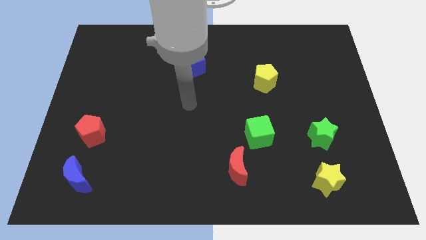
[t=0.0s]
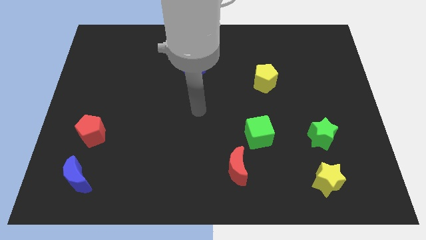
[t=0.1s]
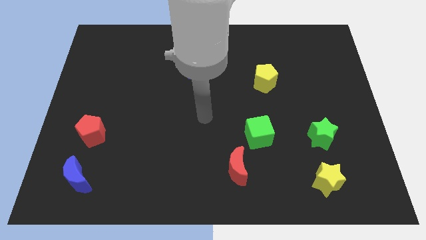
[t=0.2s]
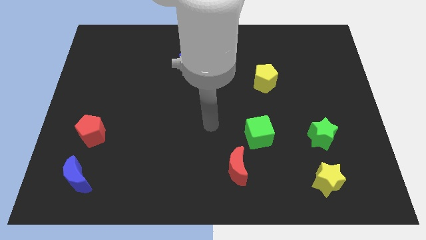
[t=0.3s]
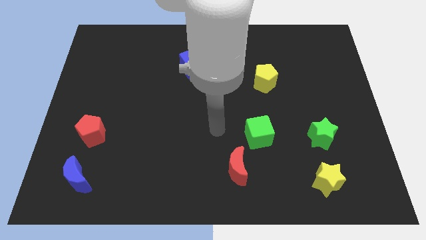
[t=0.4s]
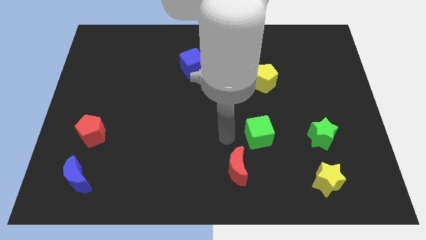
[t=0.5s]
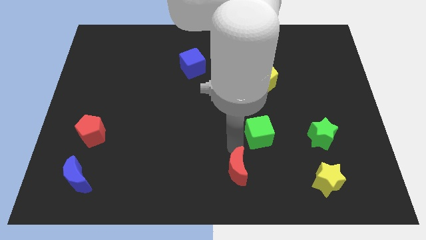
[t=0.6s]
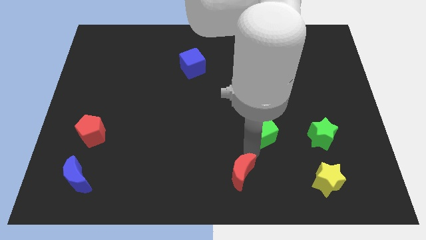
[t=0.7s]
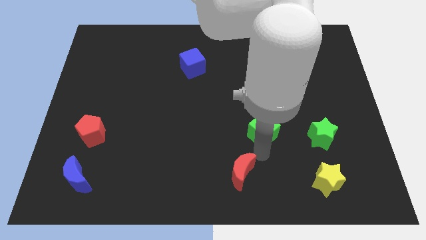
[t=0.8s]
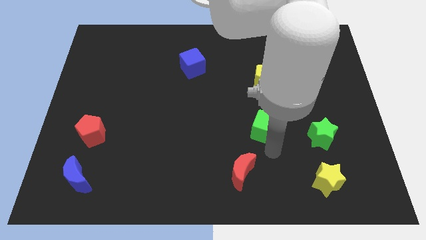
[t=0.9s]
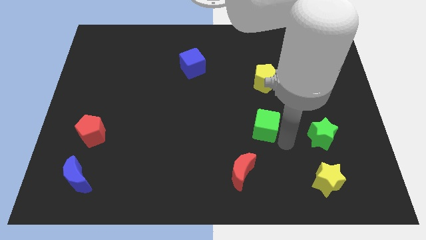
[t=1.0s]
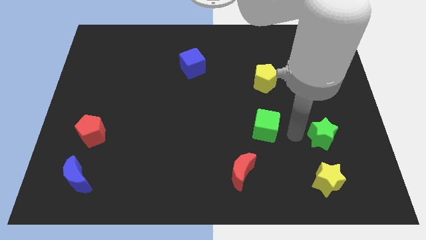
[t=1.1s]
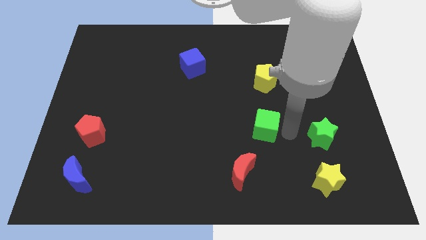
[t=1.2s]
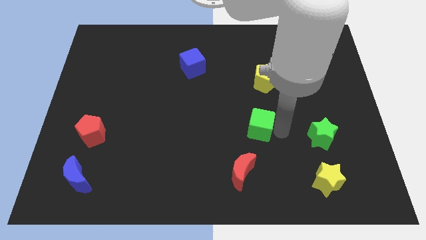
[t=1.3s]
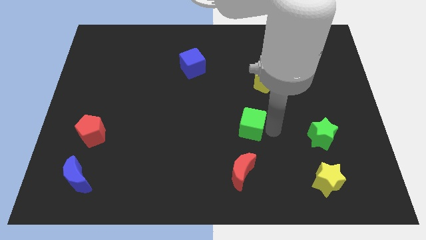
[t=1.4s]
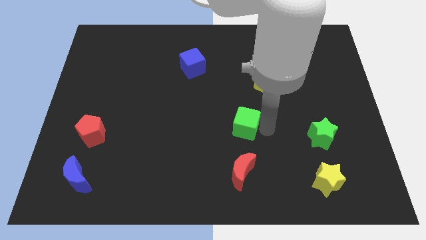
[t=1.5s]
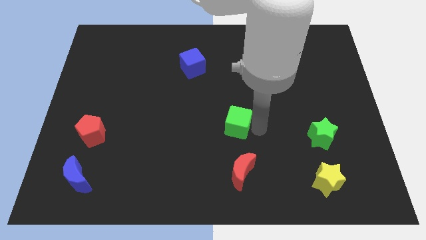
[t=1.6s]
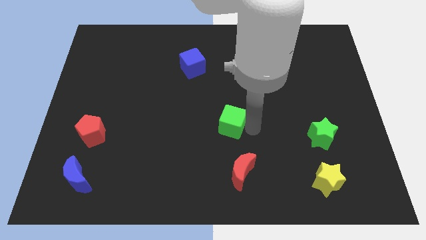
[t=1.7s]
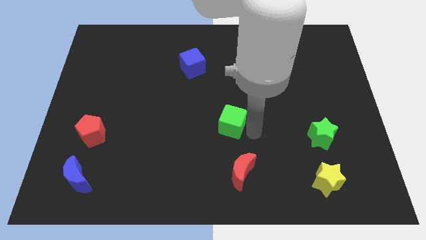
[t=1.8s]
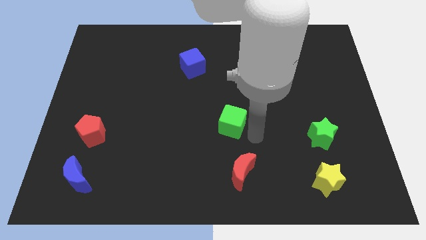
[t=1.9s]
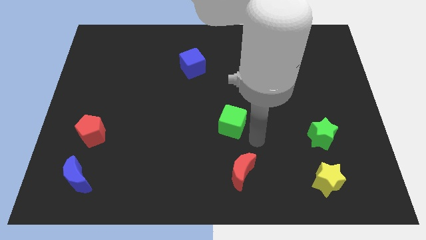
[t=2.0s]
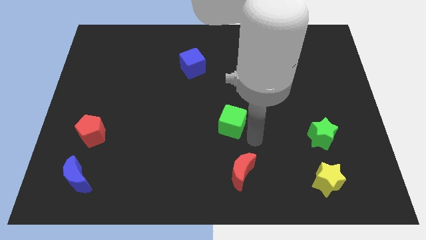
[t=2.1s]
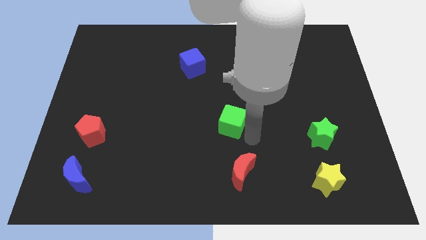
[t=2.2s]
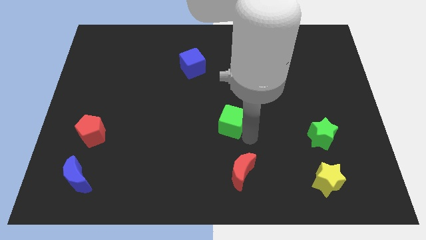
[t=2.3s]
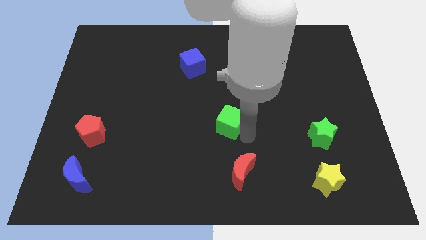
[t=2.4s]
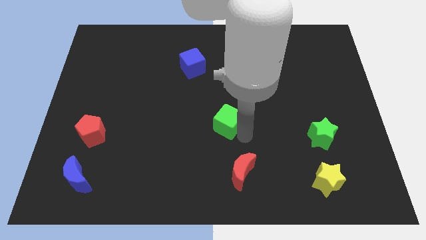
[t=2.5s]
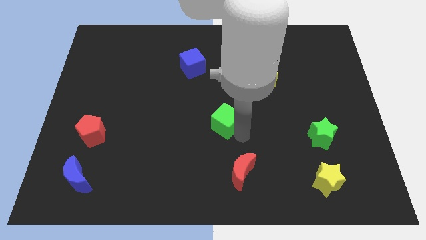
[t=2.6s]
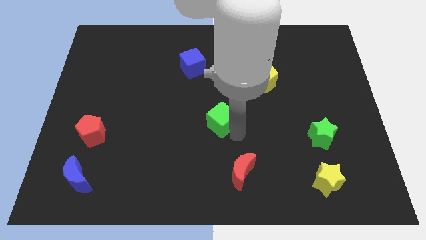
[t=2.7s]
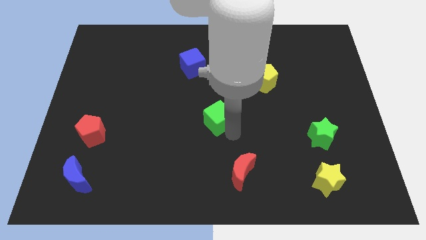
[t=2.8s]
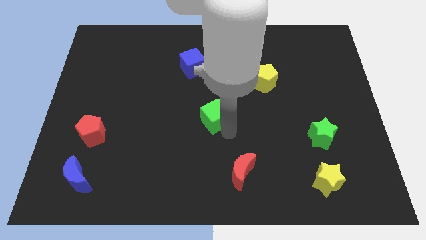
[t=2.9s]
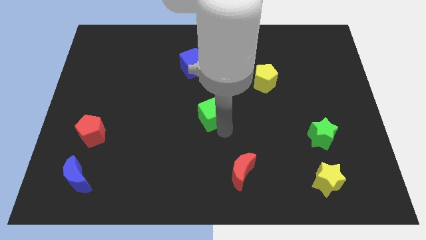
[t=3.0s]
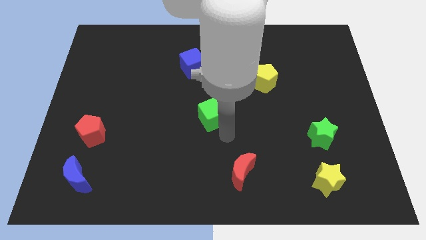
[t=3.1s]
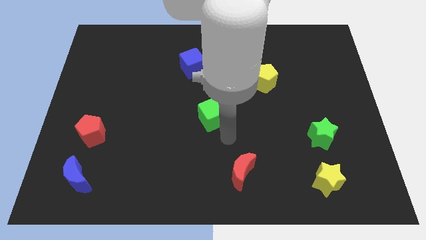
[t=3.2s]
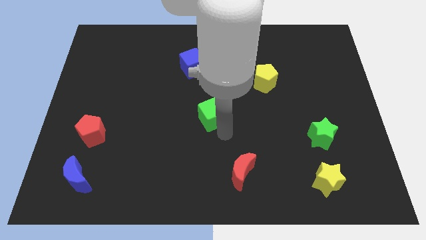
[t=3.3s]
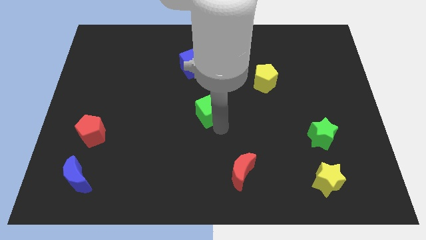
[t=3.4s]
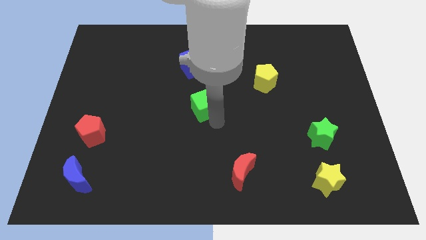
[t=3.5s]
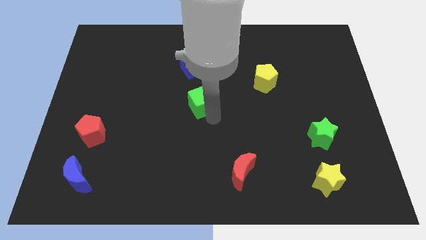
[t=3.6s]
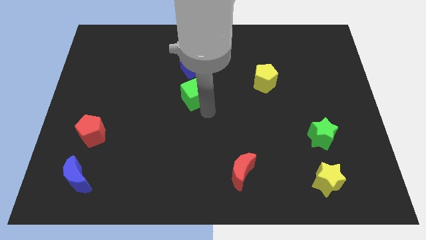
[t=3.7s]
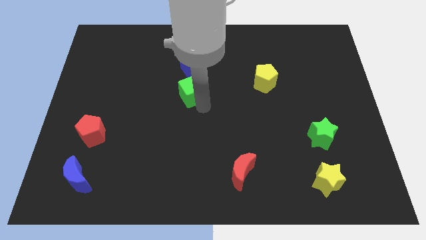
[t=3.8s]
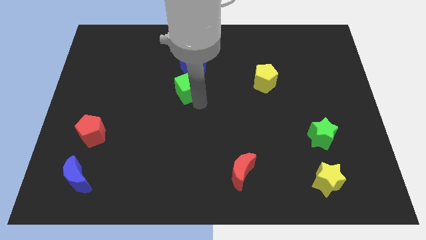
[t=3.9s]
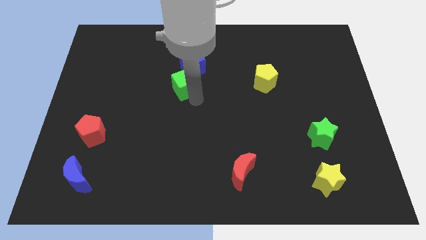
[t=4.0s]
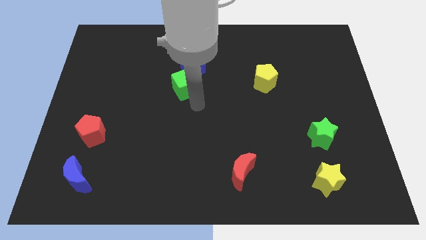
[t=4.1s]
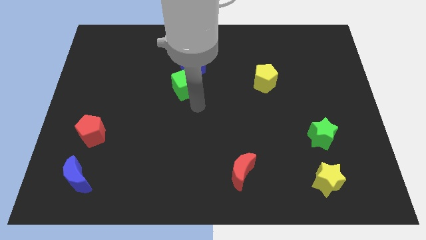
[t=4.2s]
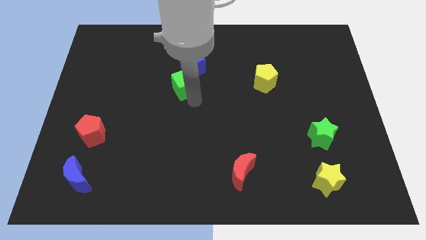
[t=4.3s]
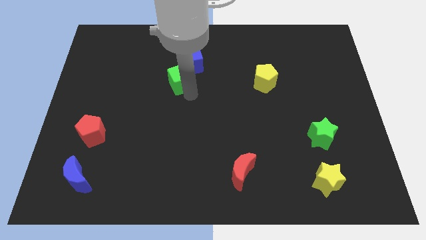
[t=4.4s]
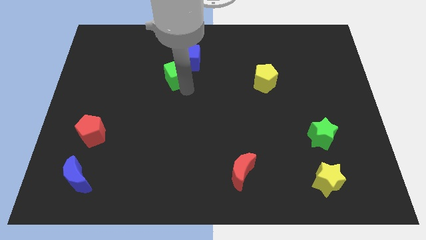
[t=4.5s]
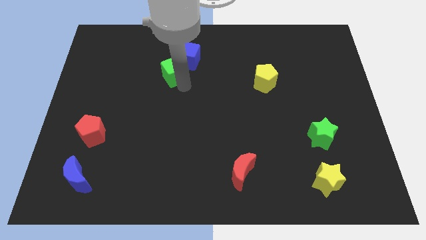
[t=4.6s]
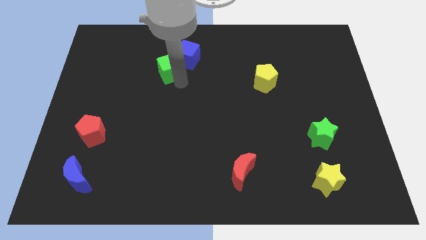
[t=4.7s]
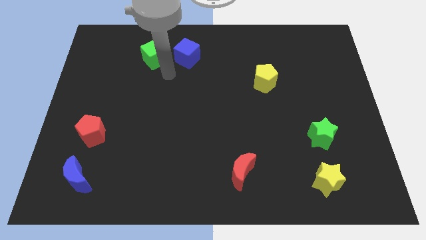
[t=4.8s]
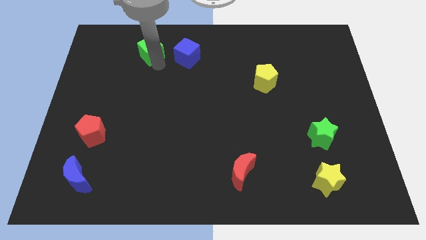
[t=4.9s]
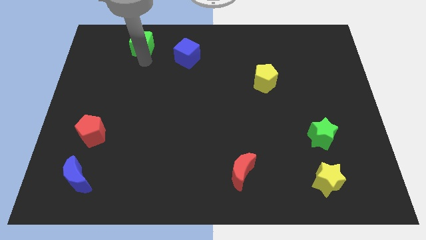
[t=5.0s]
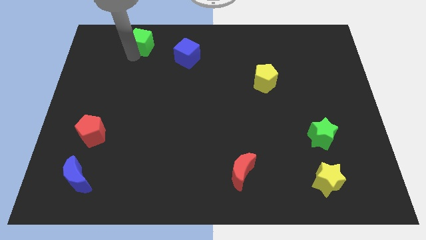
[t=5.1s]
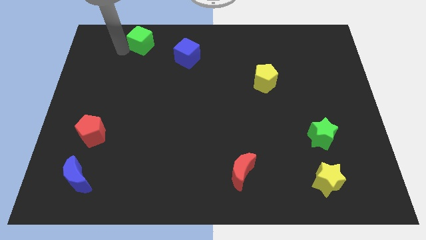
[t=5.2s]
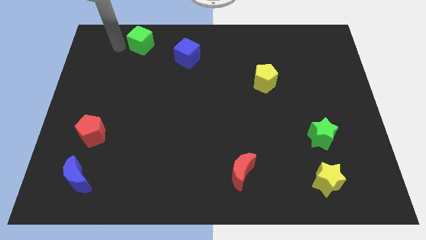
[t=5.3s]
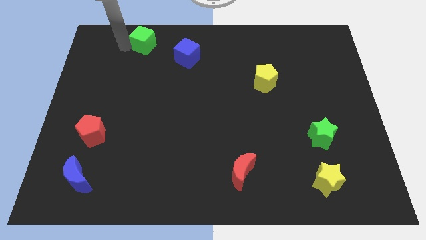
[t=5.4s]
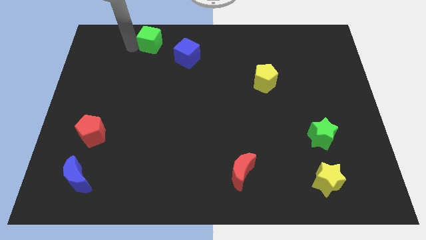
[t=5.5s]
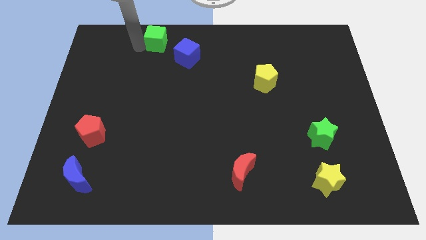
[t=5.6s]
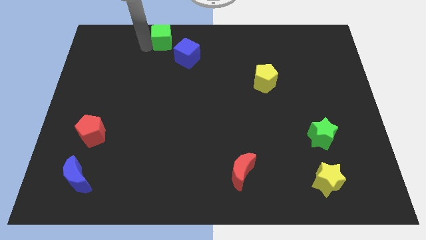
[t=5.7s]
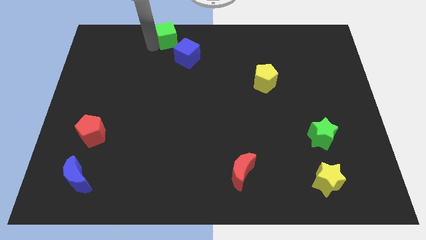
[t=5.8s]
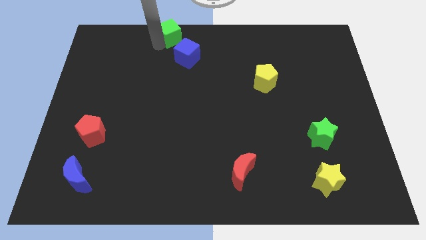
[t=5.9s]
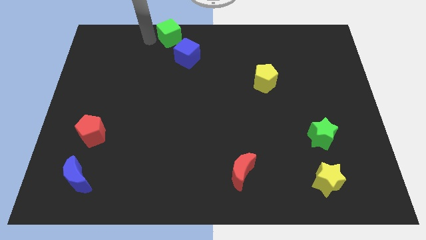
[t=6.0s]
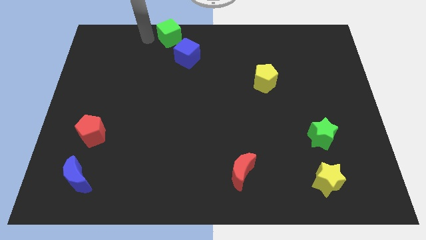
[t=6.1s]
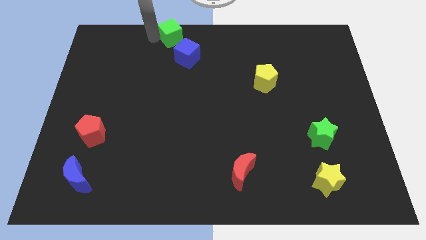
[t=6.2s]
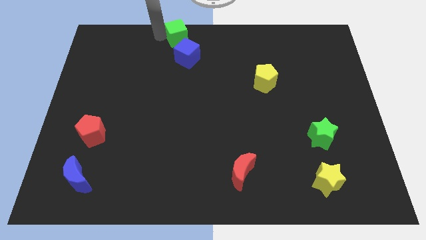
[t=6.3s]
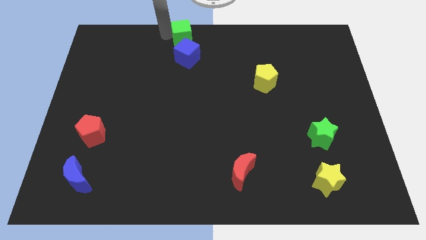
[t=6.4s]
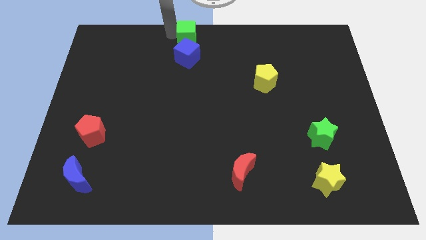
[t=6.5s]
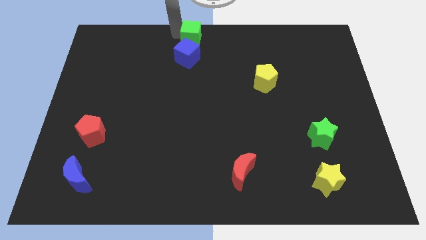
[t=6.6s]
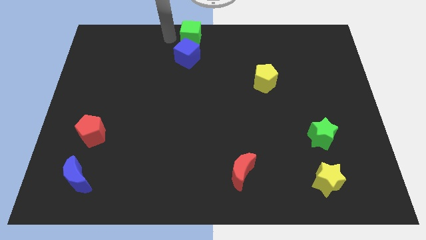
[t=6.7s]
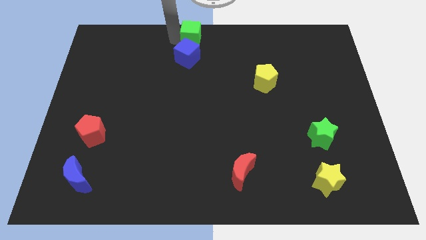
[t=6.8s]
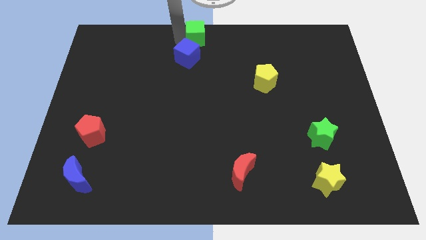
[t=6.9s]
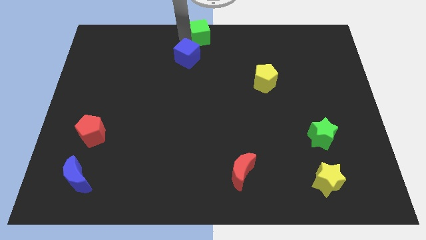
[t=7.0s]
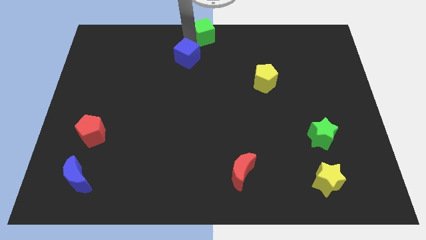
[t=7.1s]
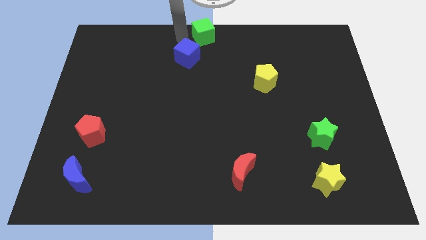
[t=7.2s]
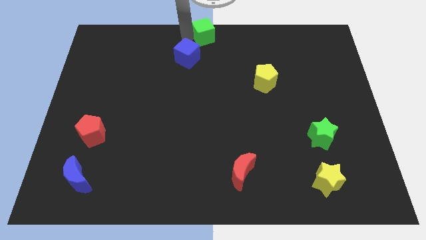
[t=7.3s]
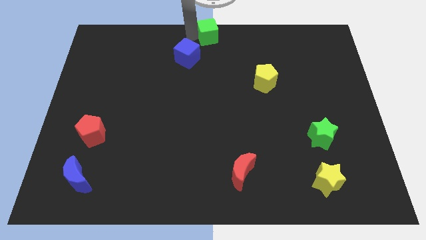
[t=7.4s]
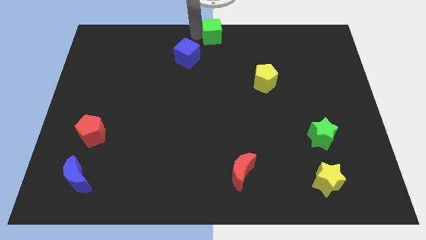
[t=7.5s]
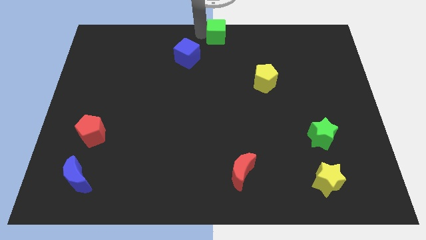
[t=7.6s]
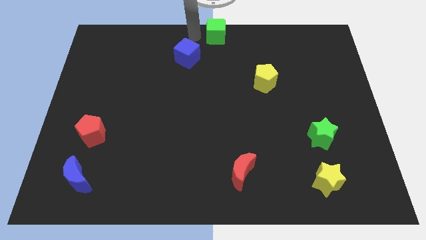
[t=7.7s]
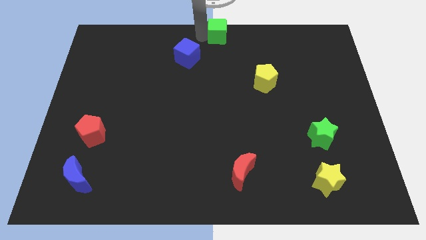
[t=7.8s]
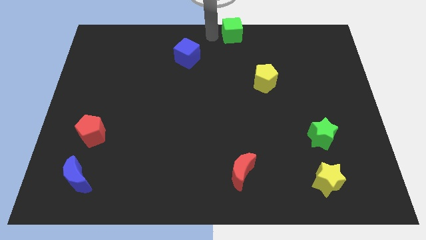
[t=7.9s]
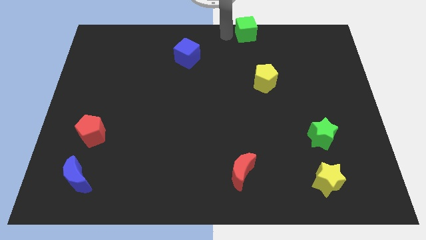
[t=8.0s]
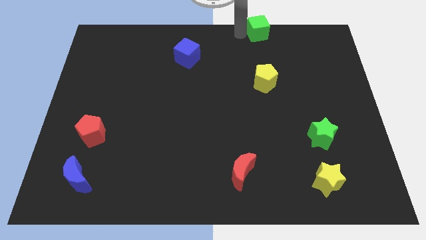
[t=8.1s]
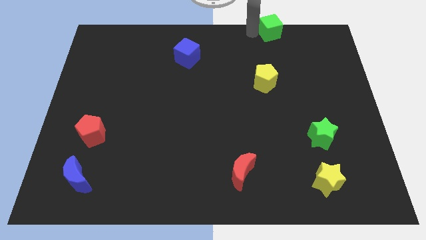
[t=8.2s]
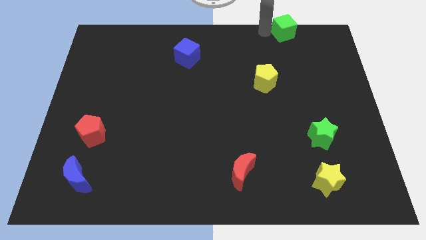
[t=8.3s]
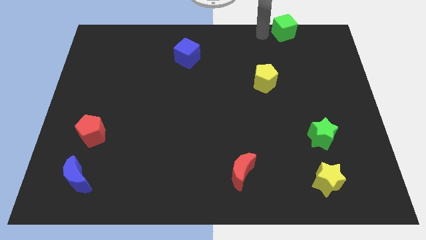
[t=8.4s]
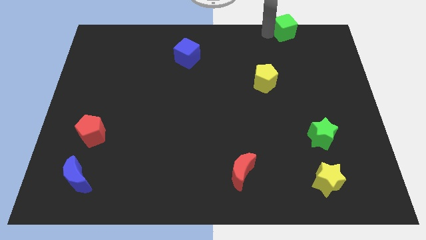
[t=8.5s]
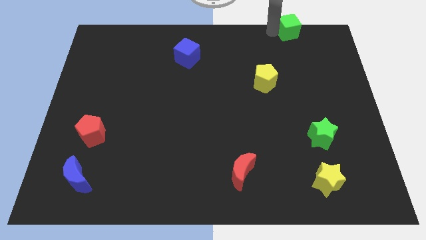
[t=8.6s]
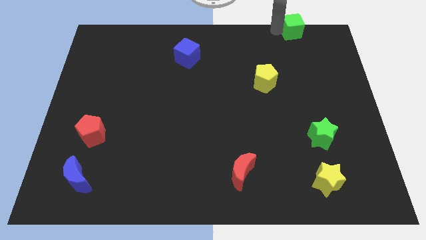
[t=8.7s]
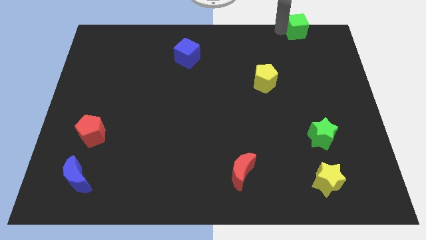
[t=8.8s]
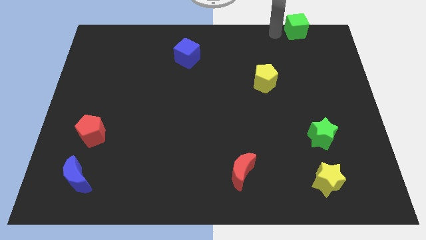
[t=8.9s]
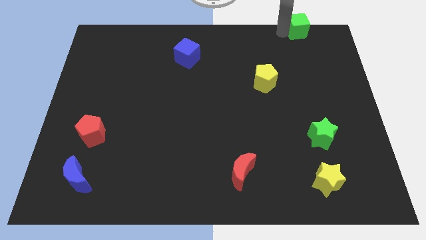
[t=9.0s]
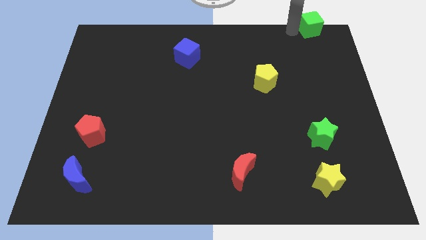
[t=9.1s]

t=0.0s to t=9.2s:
slide the green cube to the top right corner
